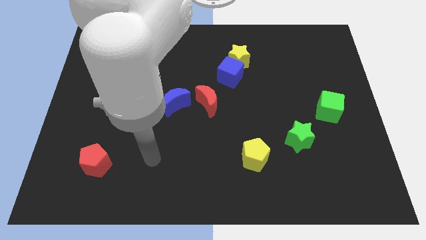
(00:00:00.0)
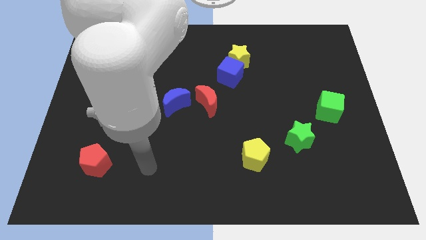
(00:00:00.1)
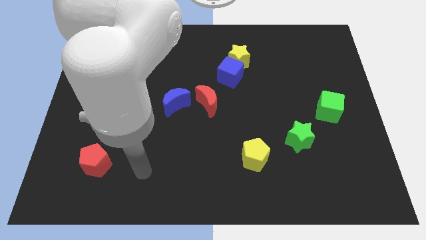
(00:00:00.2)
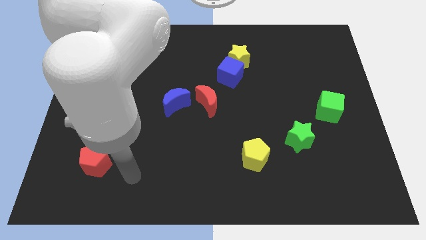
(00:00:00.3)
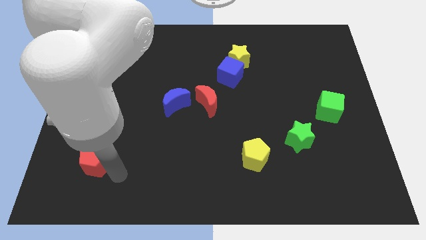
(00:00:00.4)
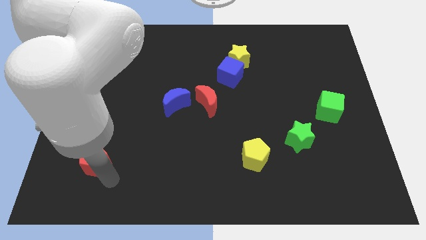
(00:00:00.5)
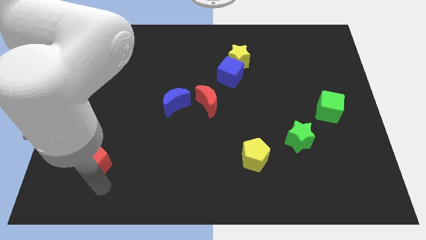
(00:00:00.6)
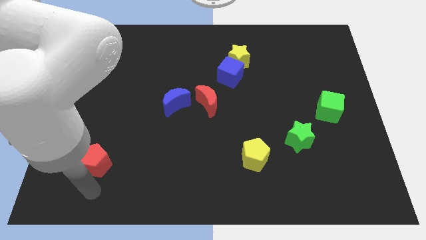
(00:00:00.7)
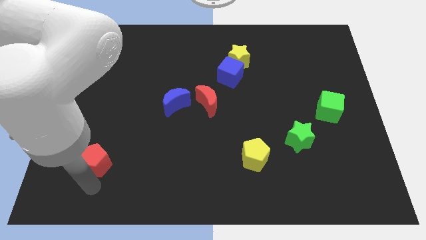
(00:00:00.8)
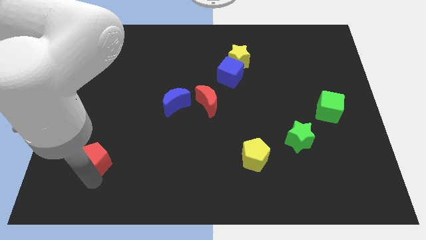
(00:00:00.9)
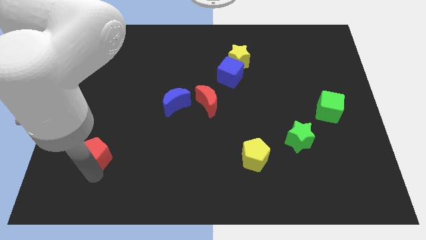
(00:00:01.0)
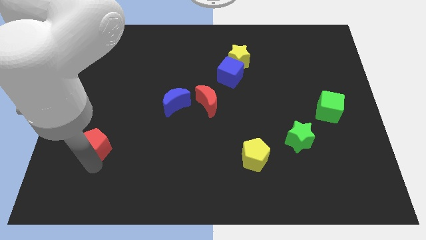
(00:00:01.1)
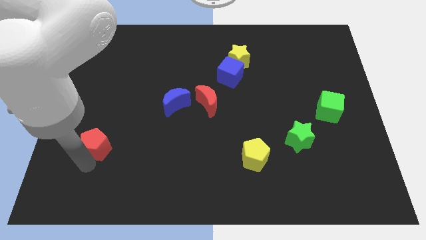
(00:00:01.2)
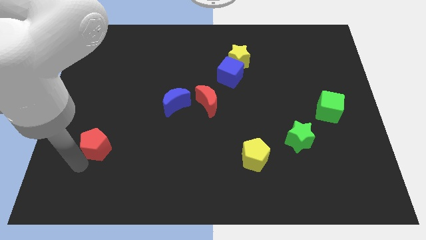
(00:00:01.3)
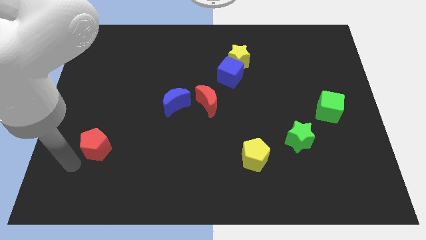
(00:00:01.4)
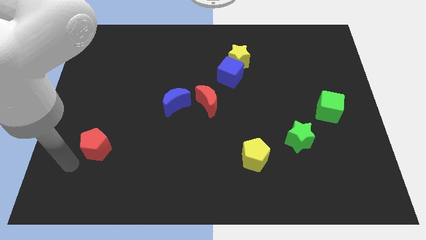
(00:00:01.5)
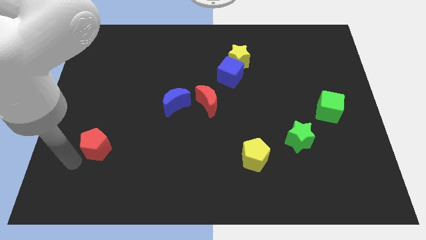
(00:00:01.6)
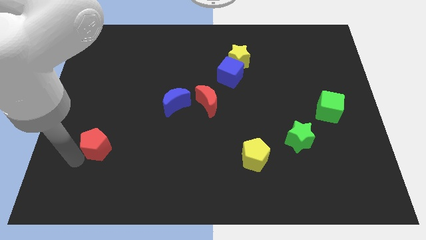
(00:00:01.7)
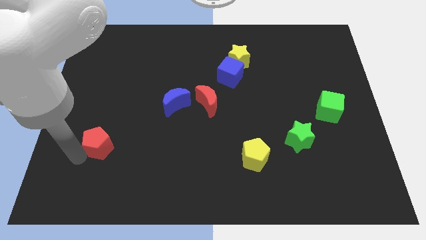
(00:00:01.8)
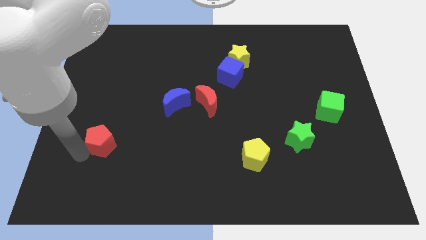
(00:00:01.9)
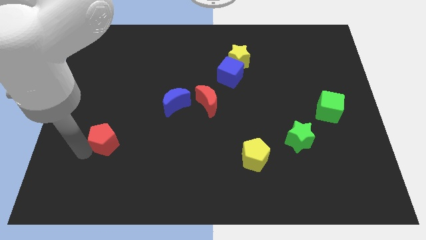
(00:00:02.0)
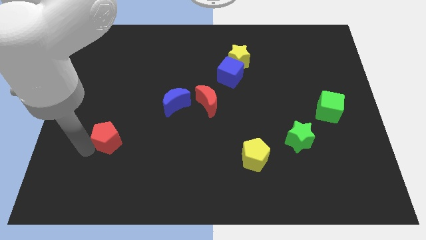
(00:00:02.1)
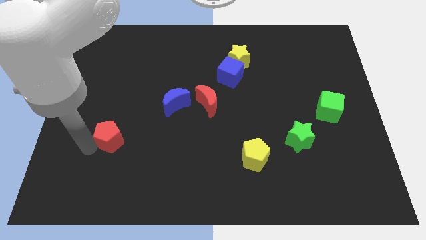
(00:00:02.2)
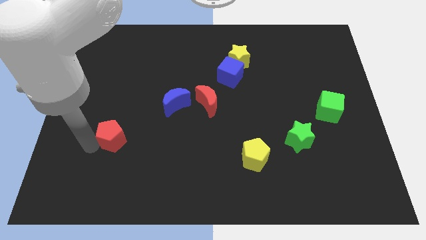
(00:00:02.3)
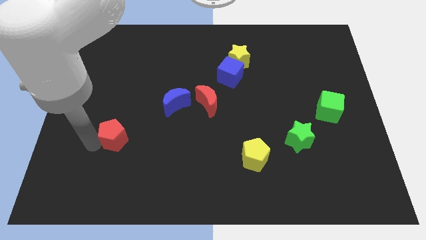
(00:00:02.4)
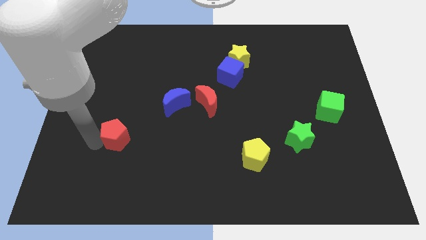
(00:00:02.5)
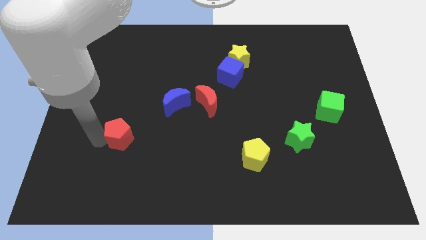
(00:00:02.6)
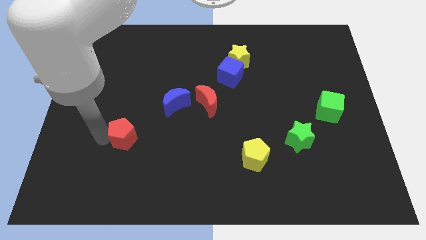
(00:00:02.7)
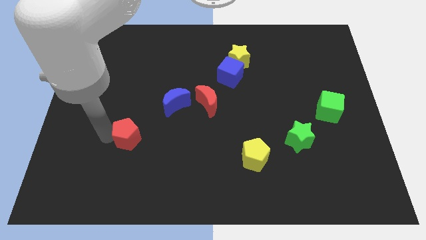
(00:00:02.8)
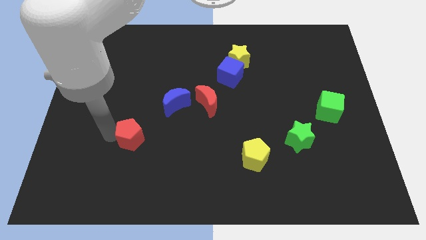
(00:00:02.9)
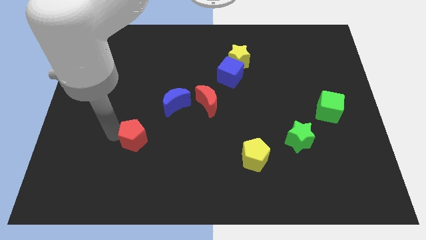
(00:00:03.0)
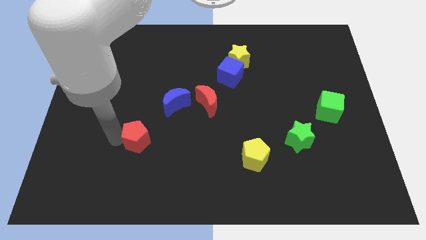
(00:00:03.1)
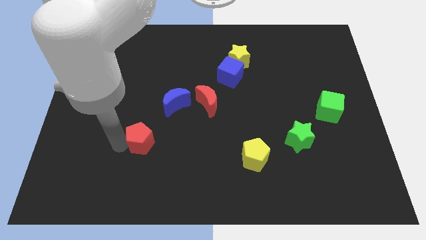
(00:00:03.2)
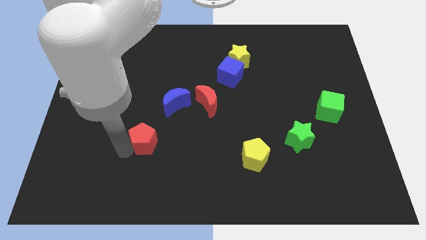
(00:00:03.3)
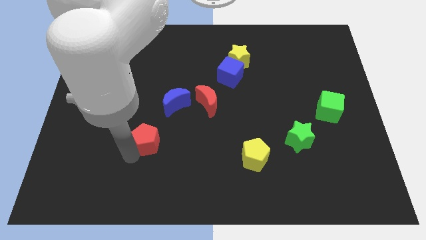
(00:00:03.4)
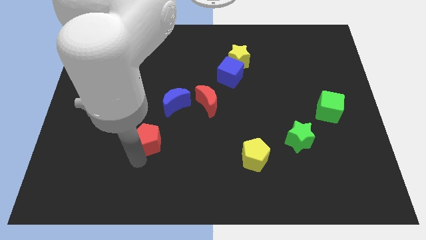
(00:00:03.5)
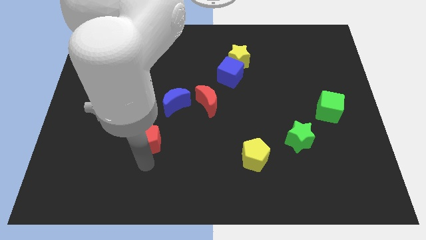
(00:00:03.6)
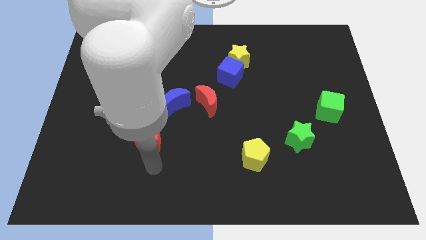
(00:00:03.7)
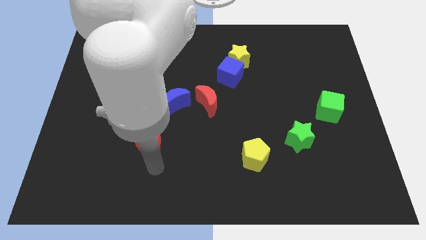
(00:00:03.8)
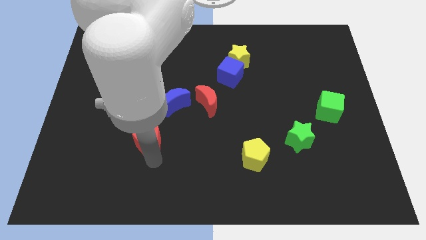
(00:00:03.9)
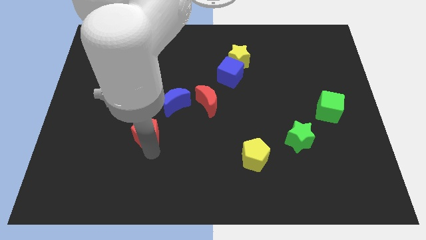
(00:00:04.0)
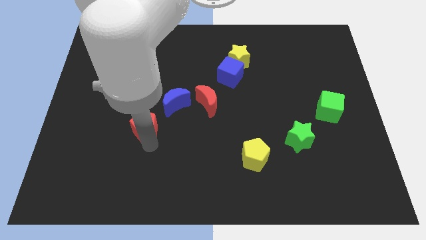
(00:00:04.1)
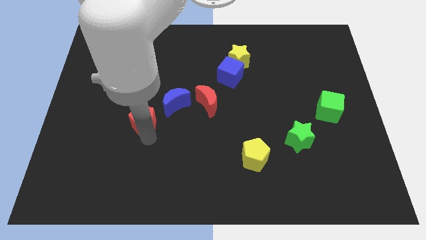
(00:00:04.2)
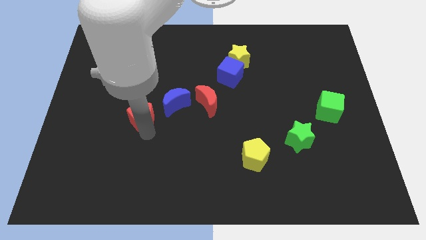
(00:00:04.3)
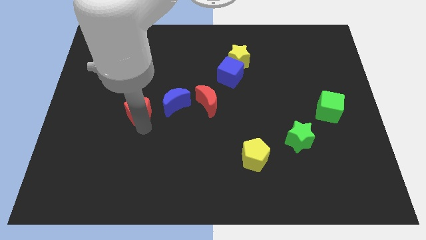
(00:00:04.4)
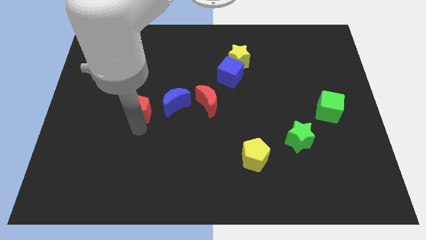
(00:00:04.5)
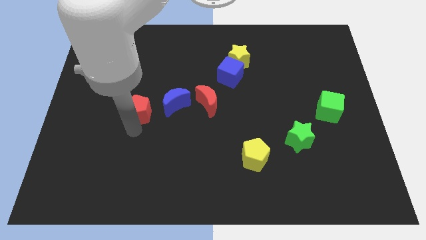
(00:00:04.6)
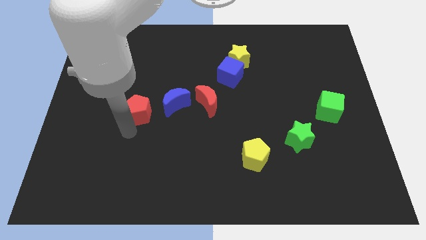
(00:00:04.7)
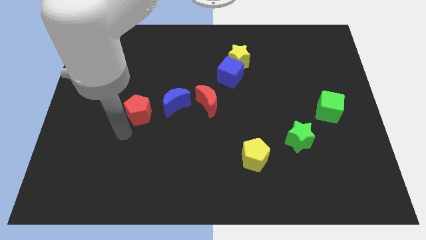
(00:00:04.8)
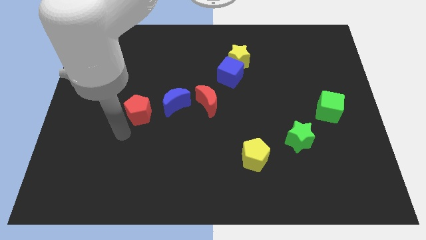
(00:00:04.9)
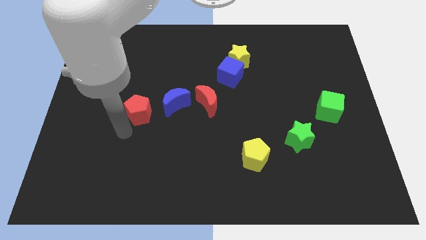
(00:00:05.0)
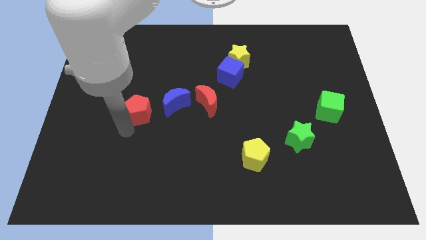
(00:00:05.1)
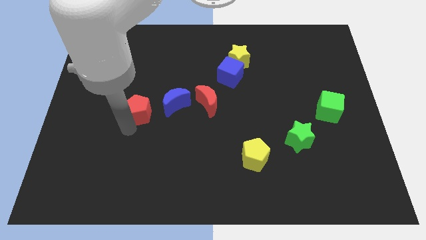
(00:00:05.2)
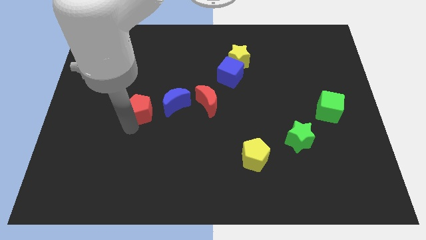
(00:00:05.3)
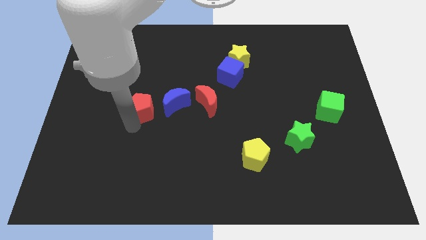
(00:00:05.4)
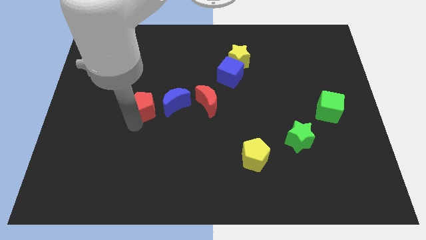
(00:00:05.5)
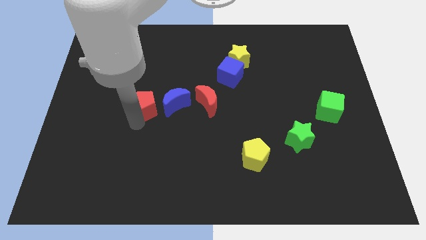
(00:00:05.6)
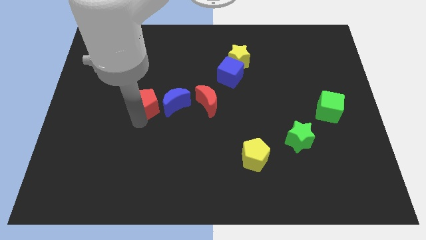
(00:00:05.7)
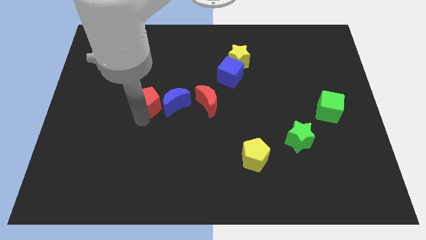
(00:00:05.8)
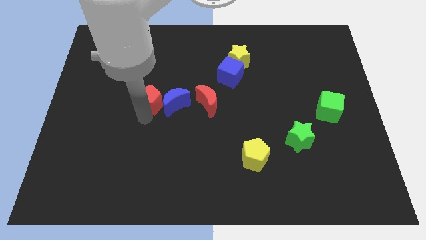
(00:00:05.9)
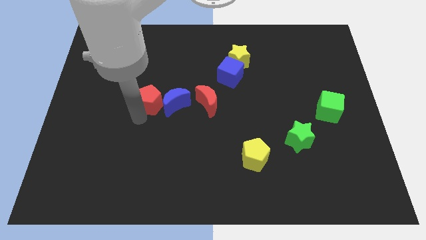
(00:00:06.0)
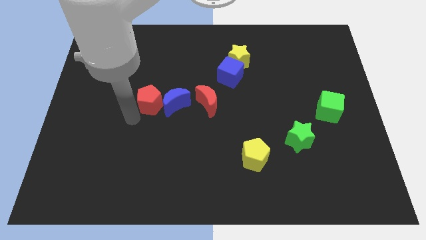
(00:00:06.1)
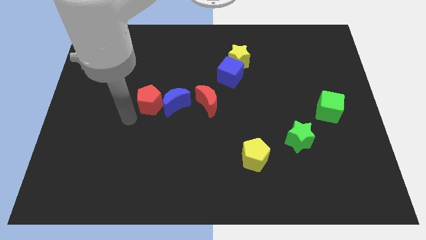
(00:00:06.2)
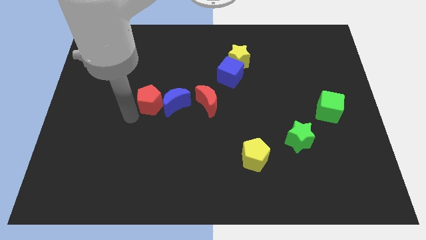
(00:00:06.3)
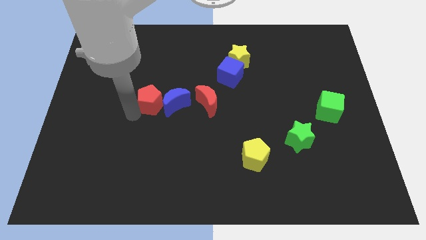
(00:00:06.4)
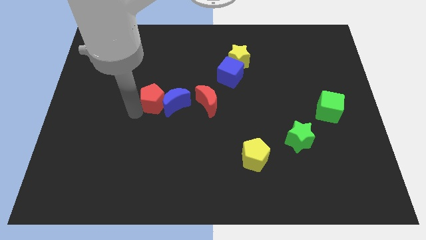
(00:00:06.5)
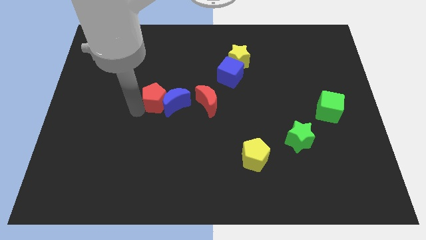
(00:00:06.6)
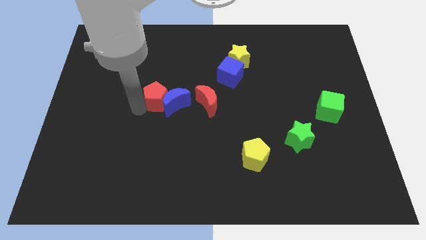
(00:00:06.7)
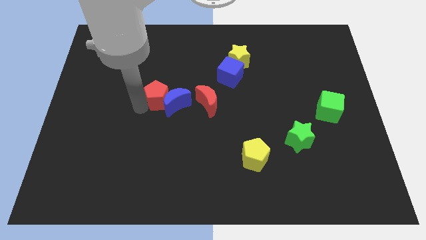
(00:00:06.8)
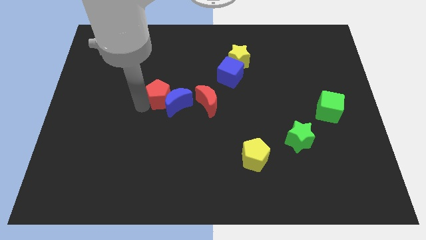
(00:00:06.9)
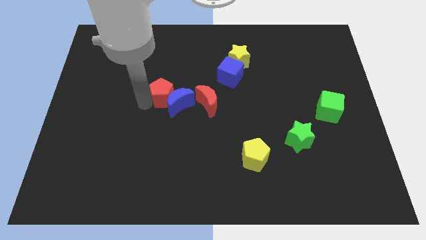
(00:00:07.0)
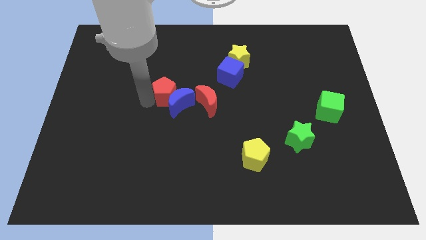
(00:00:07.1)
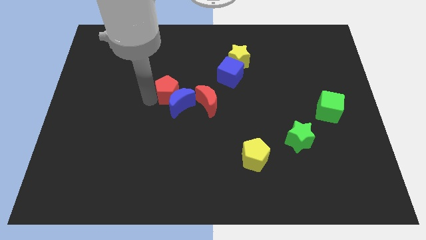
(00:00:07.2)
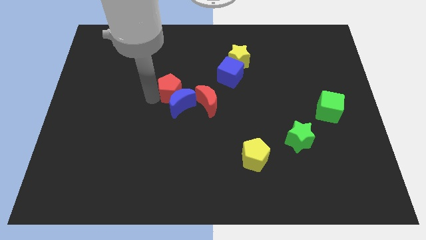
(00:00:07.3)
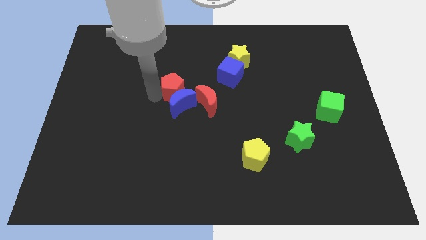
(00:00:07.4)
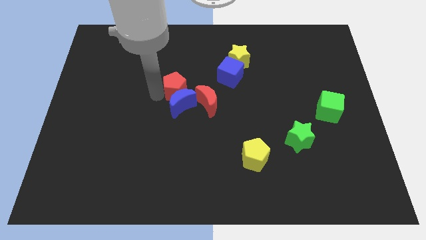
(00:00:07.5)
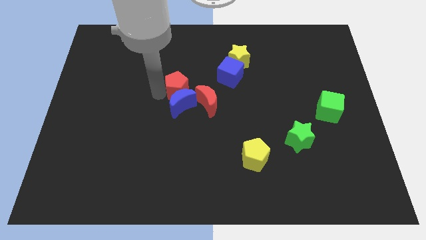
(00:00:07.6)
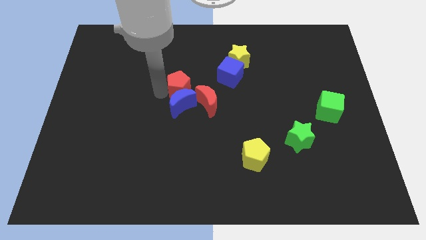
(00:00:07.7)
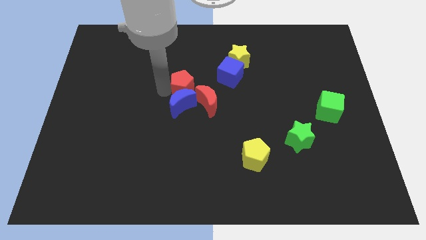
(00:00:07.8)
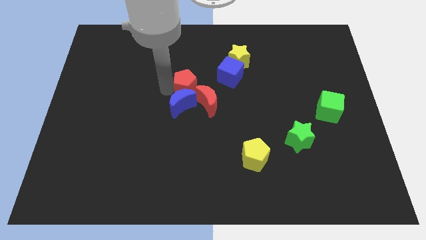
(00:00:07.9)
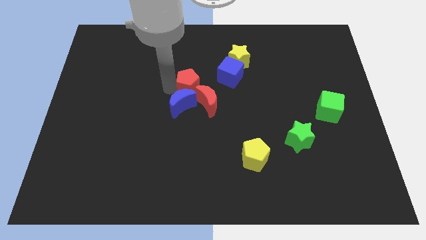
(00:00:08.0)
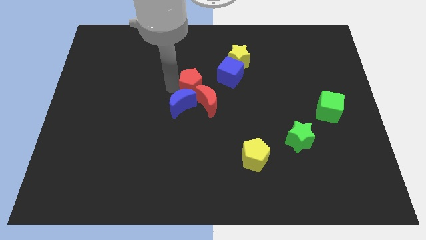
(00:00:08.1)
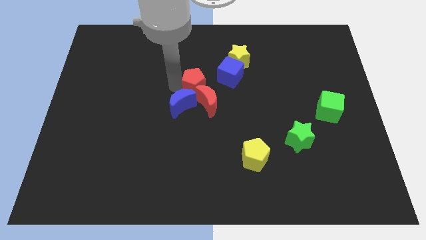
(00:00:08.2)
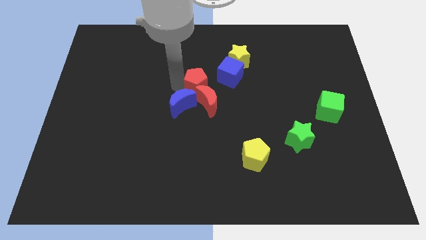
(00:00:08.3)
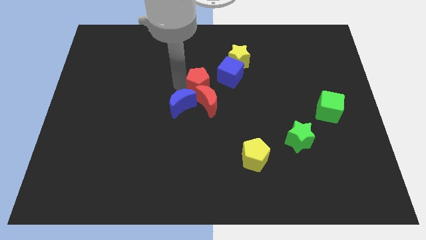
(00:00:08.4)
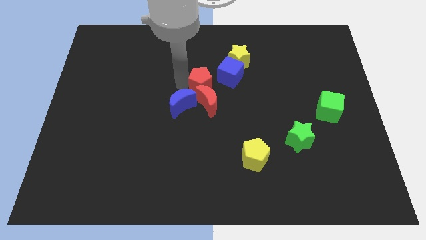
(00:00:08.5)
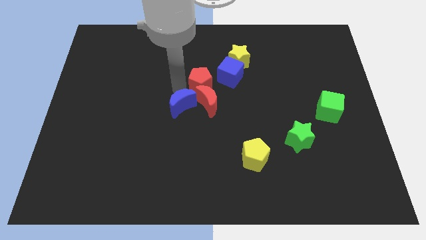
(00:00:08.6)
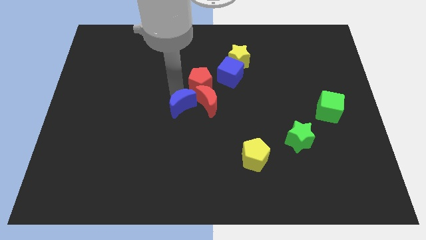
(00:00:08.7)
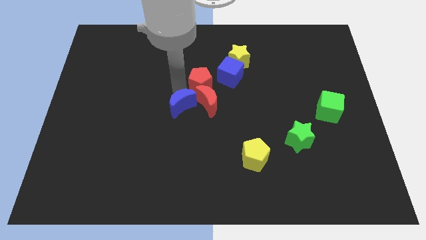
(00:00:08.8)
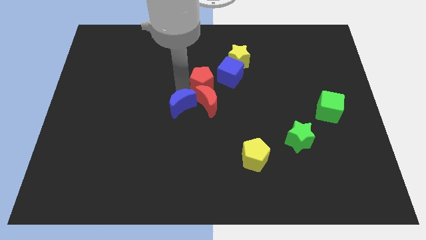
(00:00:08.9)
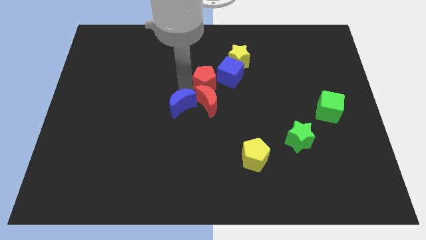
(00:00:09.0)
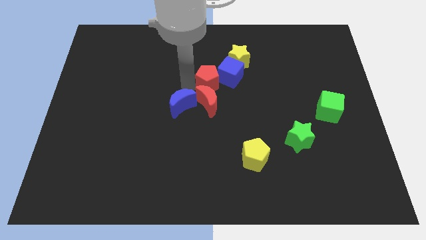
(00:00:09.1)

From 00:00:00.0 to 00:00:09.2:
put the red pentagon towards the blue cube
